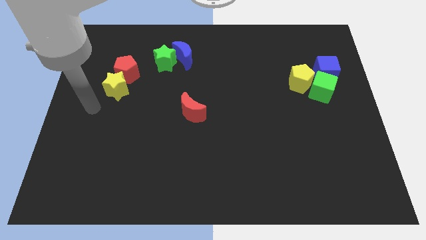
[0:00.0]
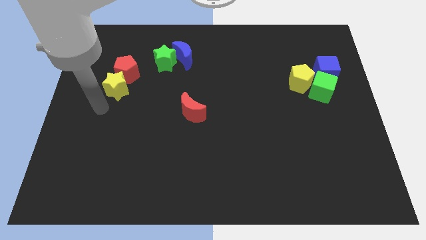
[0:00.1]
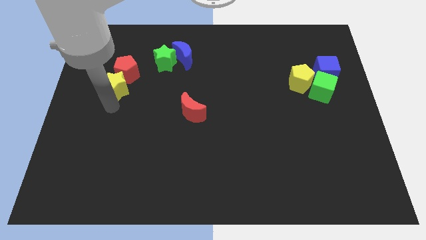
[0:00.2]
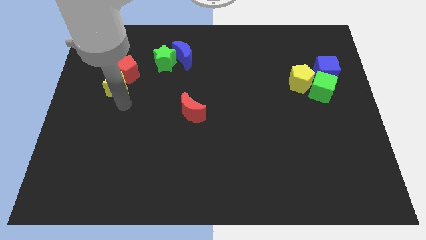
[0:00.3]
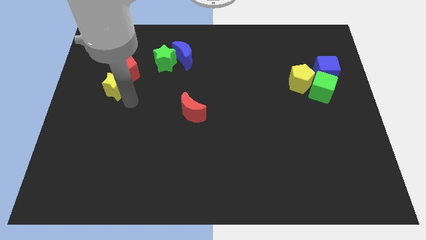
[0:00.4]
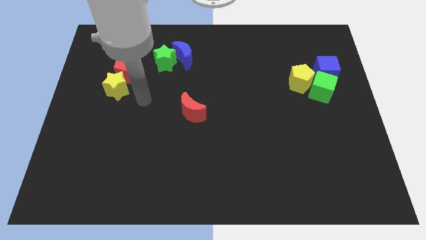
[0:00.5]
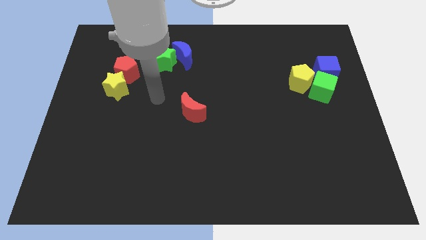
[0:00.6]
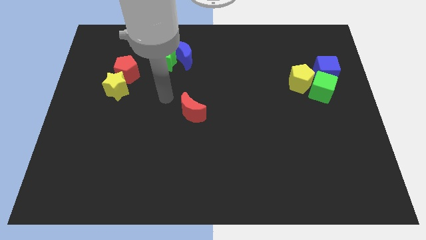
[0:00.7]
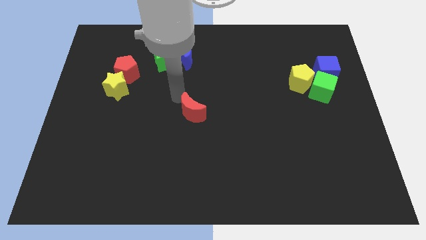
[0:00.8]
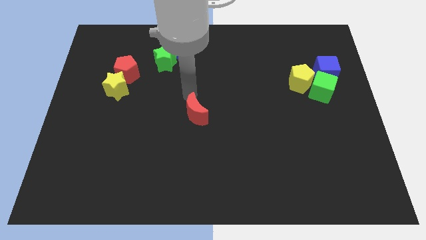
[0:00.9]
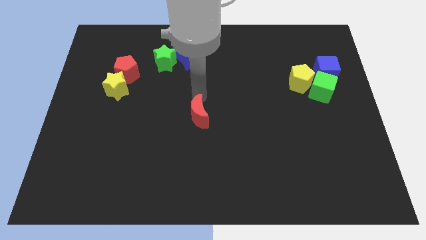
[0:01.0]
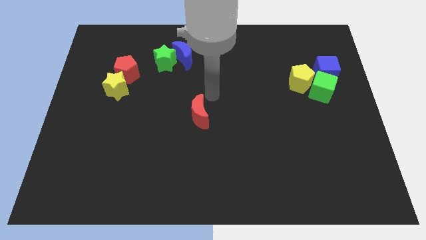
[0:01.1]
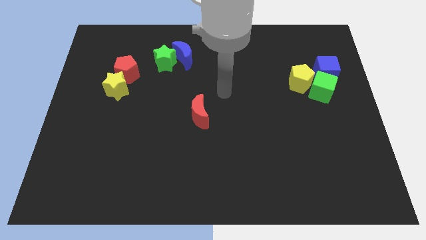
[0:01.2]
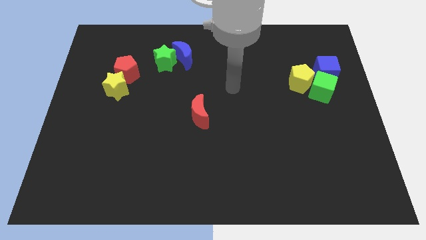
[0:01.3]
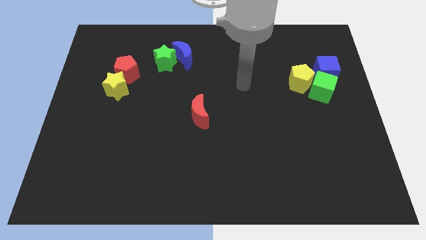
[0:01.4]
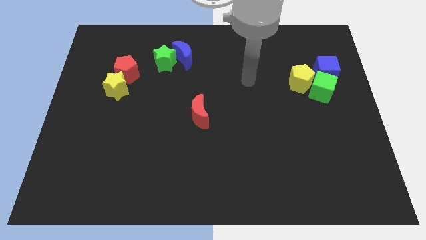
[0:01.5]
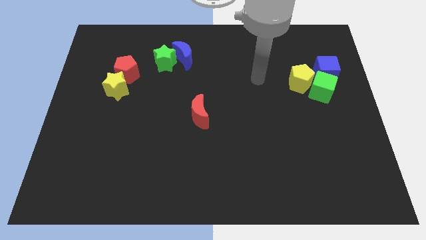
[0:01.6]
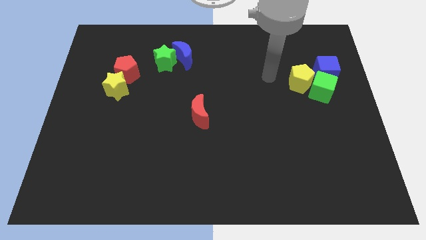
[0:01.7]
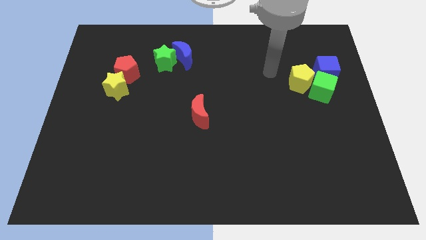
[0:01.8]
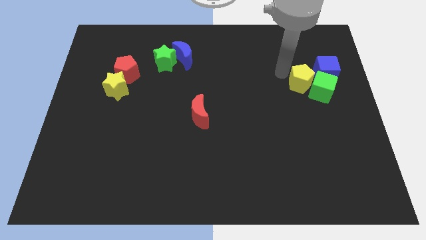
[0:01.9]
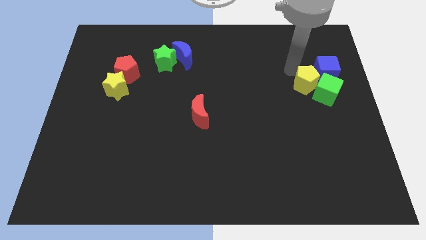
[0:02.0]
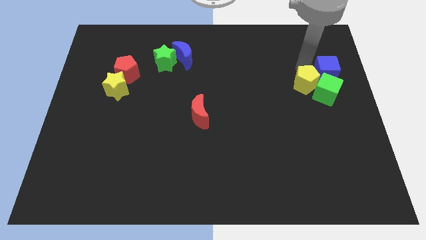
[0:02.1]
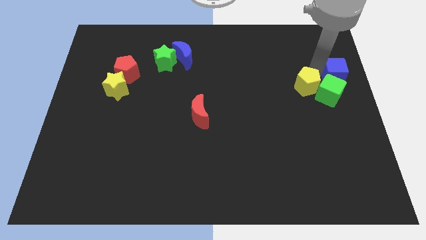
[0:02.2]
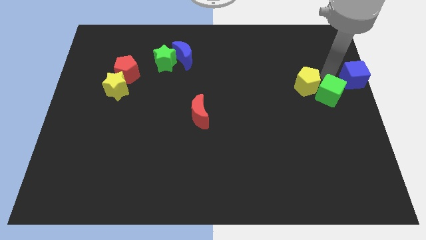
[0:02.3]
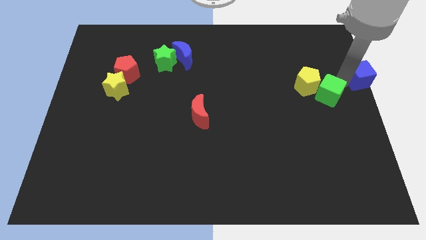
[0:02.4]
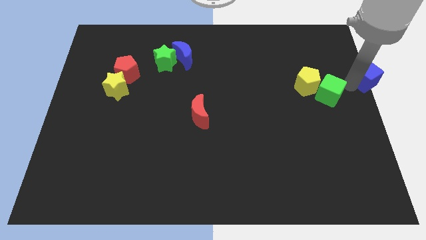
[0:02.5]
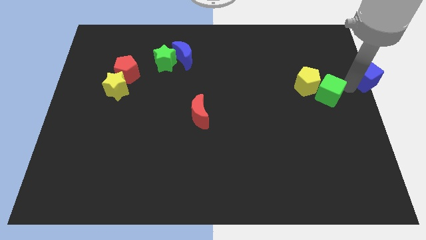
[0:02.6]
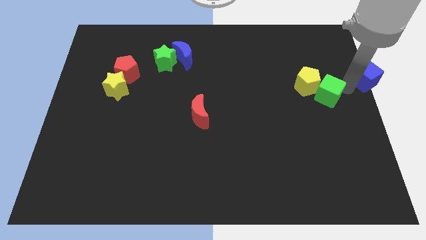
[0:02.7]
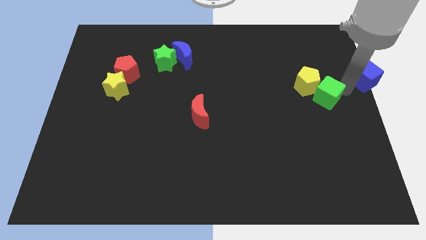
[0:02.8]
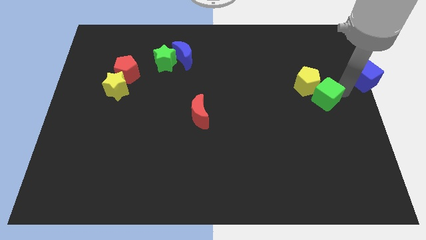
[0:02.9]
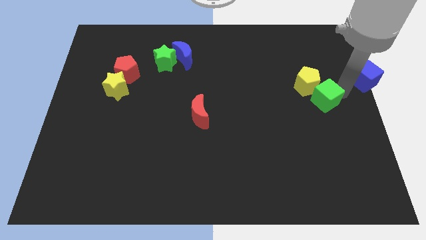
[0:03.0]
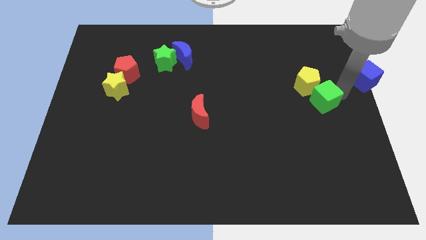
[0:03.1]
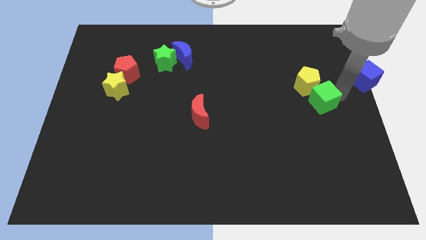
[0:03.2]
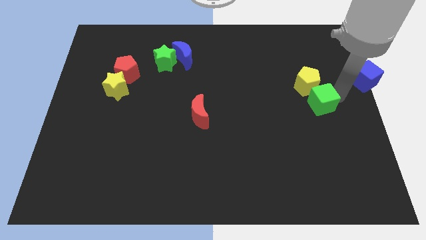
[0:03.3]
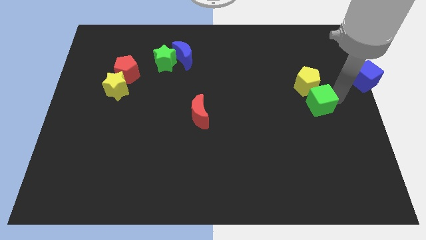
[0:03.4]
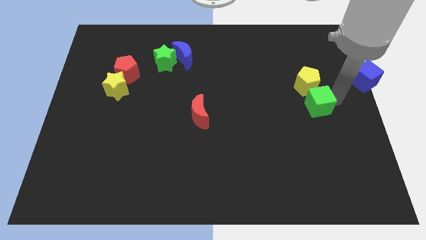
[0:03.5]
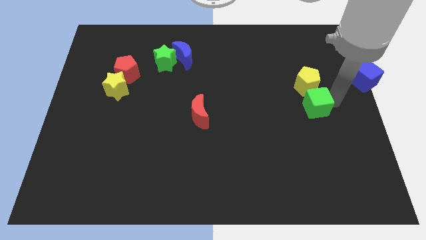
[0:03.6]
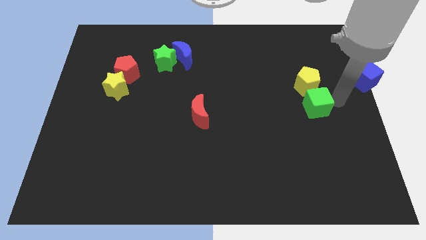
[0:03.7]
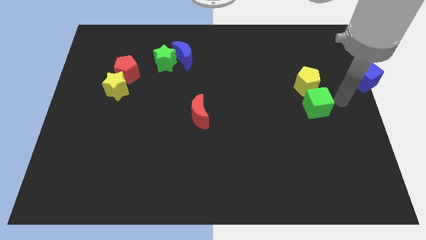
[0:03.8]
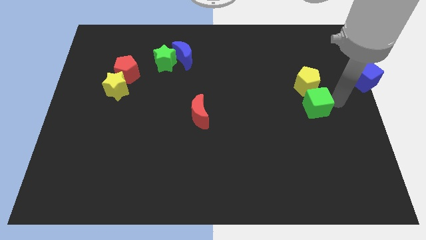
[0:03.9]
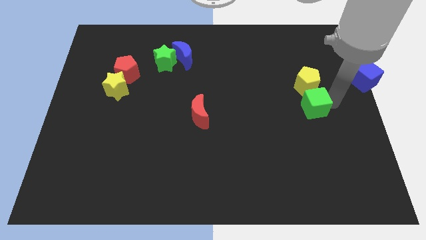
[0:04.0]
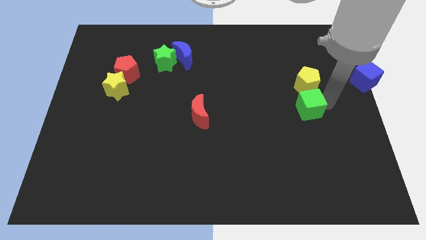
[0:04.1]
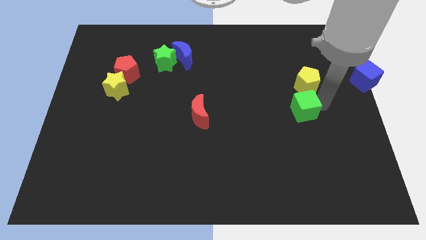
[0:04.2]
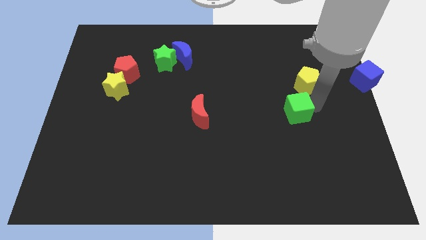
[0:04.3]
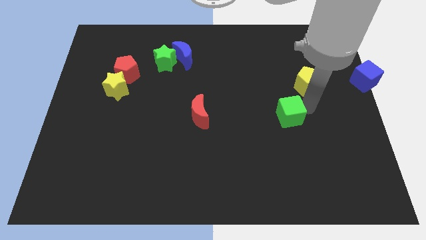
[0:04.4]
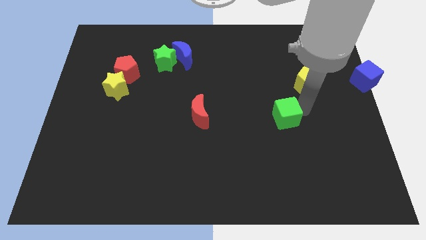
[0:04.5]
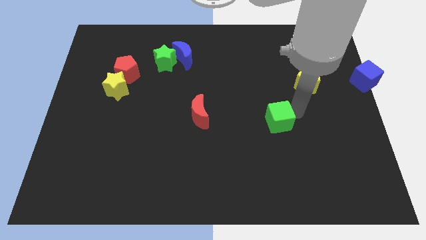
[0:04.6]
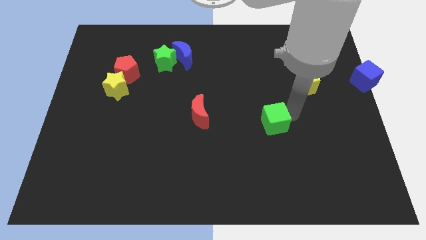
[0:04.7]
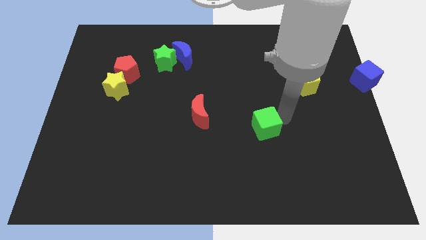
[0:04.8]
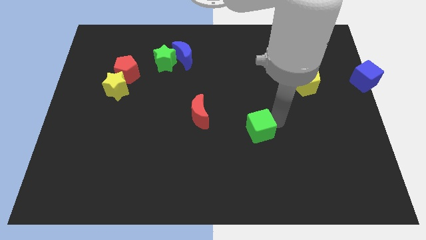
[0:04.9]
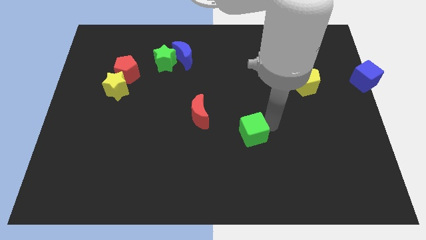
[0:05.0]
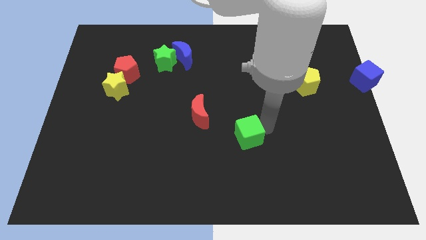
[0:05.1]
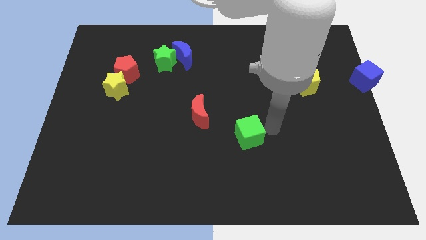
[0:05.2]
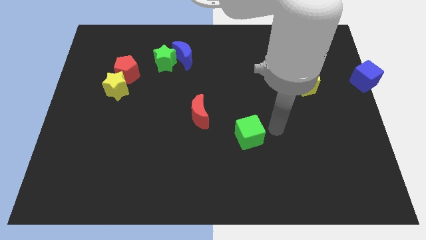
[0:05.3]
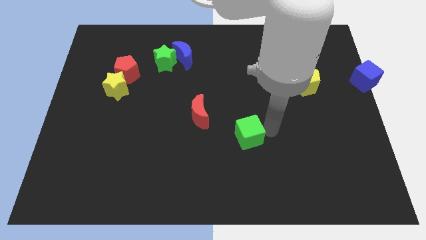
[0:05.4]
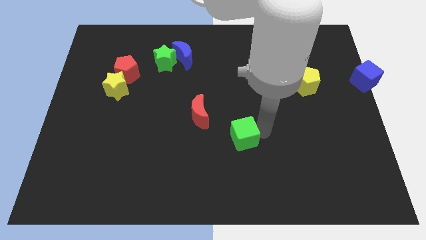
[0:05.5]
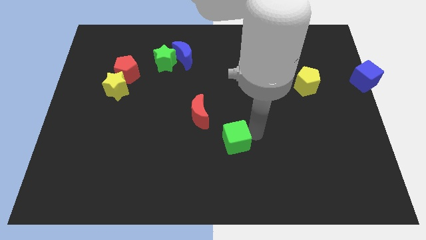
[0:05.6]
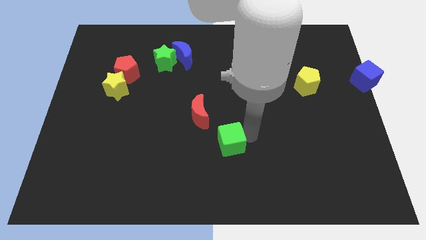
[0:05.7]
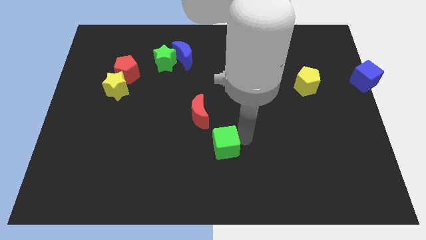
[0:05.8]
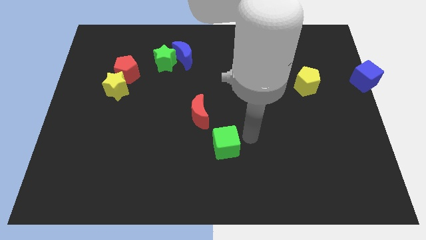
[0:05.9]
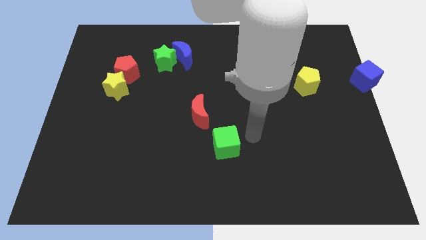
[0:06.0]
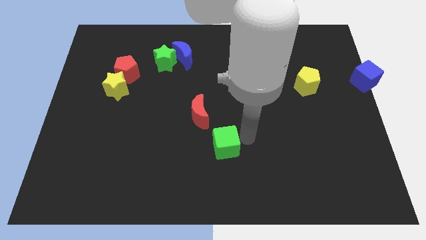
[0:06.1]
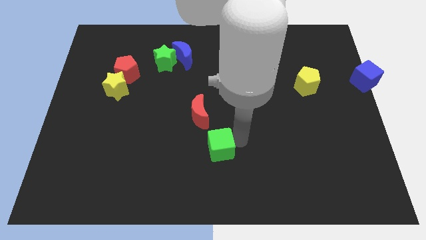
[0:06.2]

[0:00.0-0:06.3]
push the green cube below the red moon

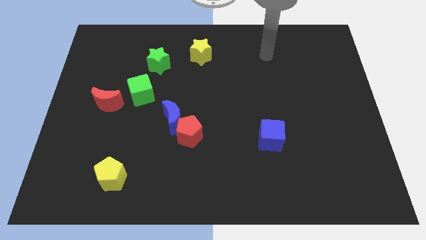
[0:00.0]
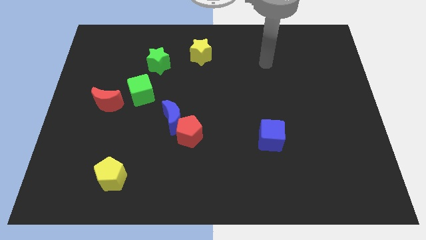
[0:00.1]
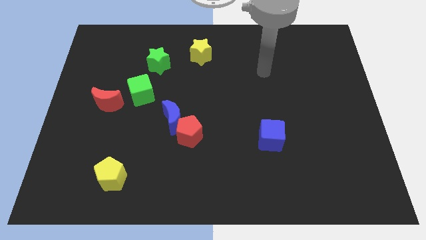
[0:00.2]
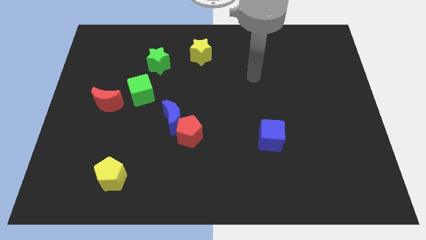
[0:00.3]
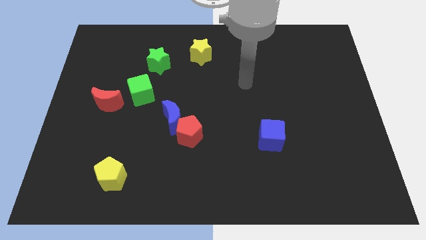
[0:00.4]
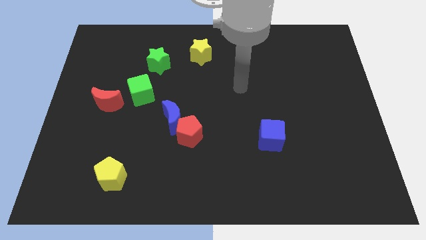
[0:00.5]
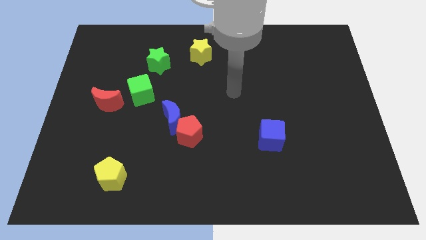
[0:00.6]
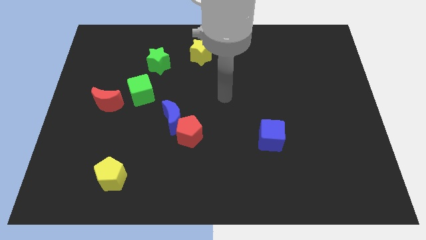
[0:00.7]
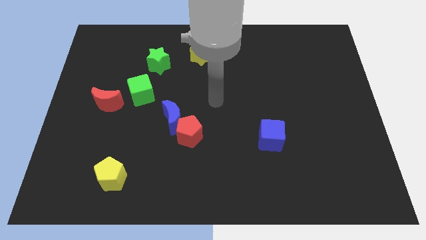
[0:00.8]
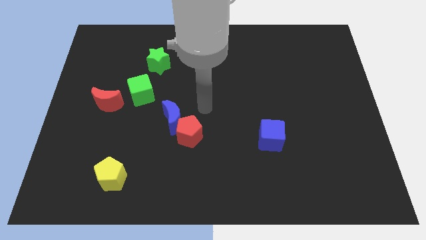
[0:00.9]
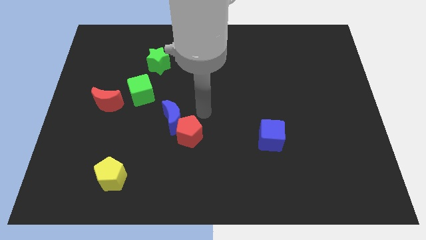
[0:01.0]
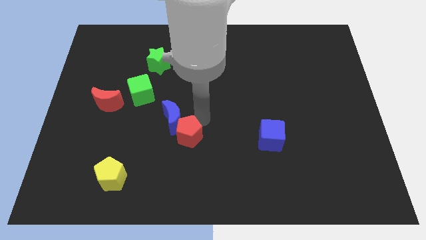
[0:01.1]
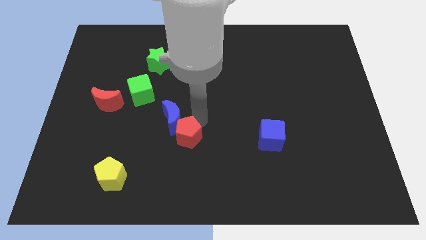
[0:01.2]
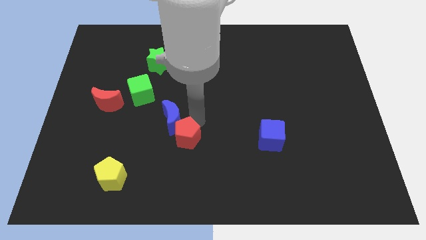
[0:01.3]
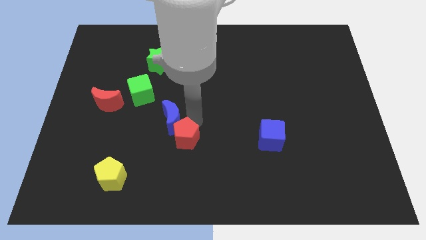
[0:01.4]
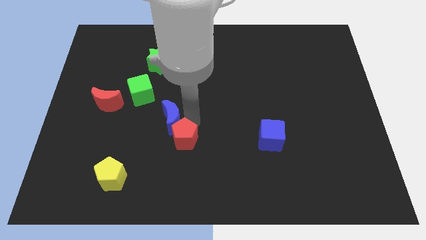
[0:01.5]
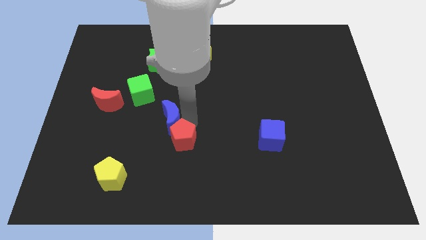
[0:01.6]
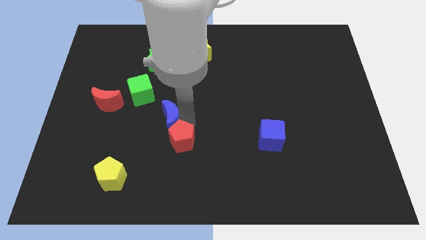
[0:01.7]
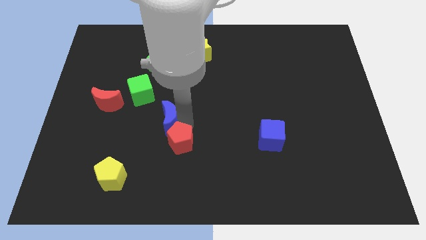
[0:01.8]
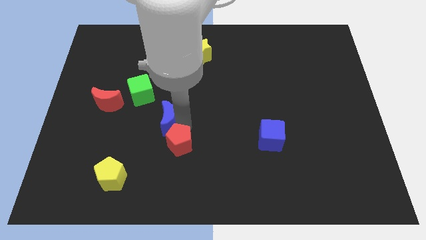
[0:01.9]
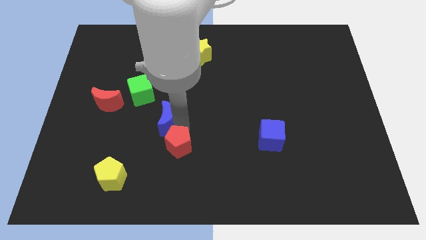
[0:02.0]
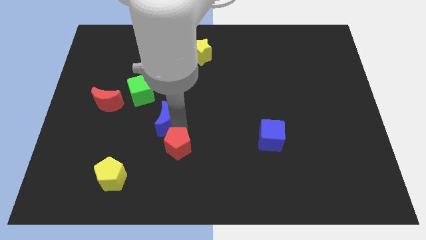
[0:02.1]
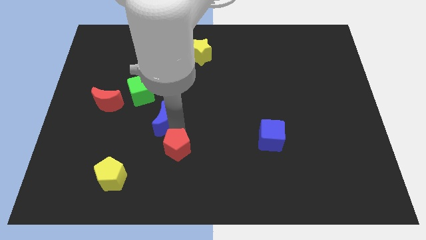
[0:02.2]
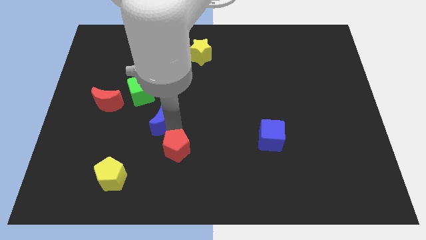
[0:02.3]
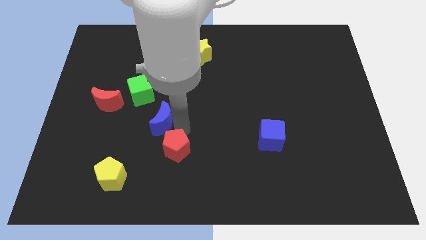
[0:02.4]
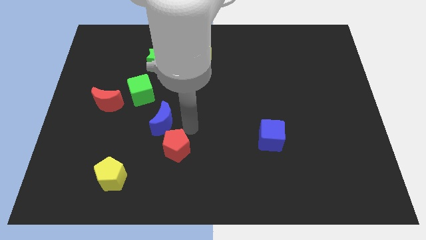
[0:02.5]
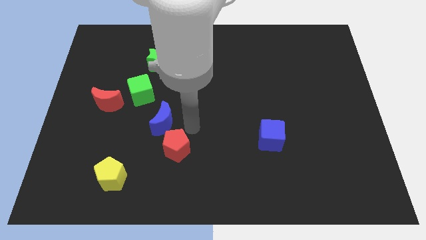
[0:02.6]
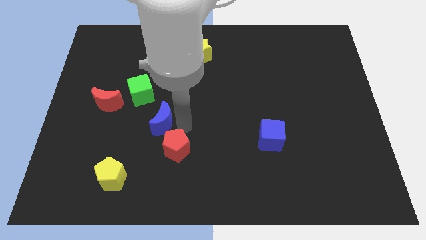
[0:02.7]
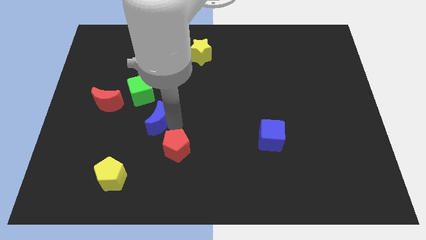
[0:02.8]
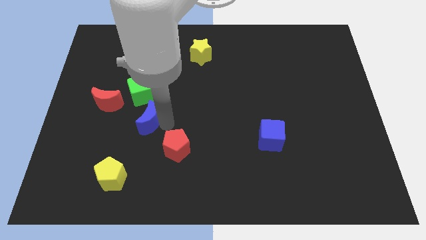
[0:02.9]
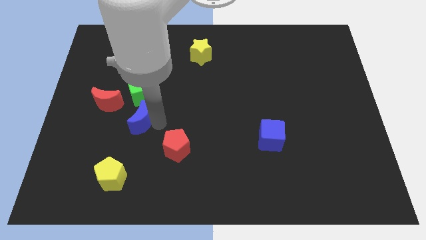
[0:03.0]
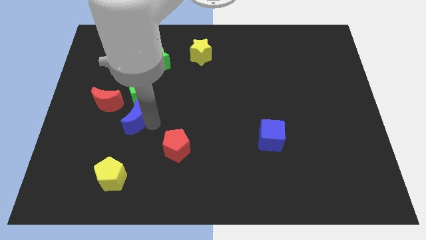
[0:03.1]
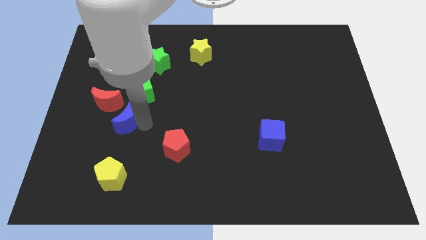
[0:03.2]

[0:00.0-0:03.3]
slide the blue moon to the bottom left side of the green cube
